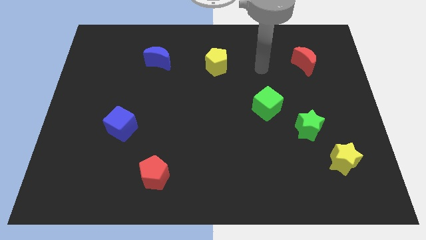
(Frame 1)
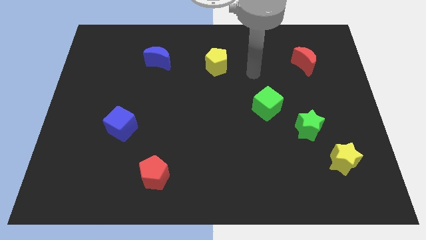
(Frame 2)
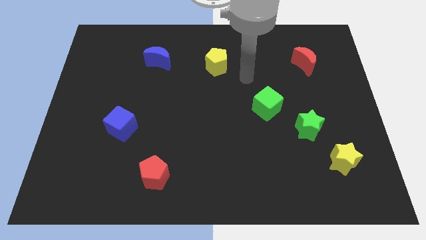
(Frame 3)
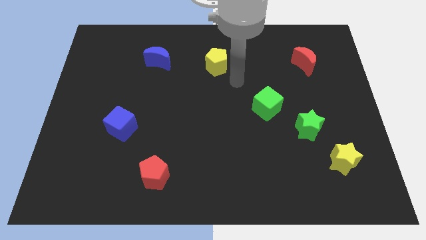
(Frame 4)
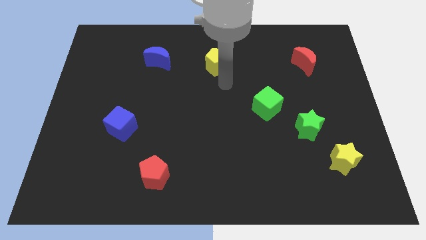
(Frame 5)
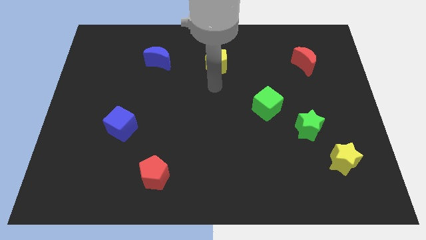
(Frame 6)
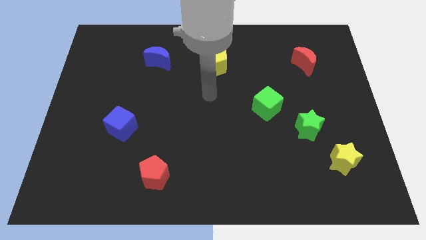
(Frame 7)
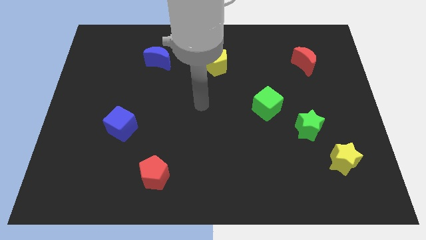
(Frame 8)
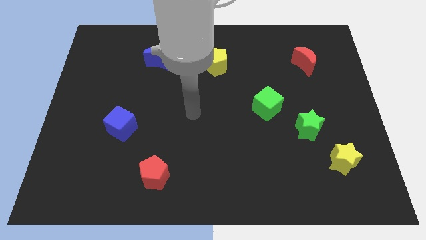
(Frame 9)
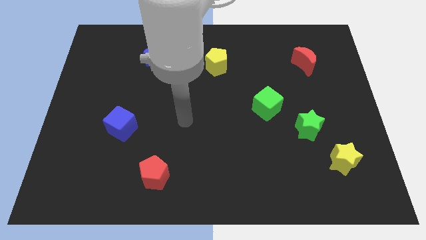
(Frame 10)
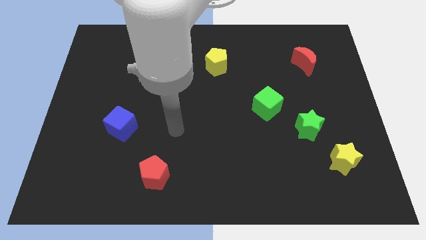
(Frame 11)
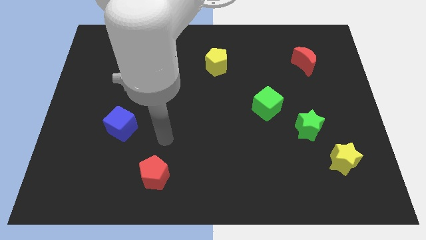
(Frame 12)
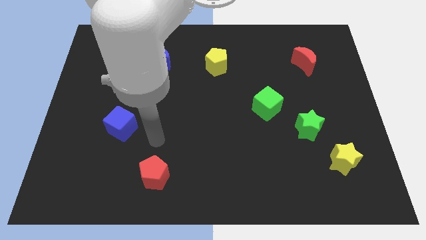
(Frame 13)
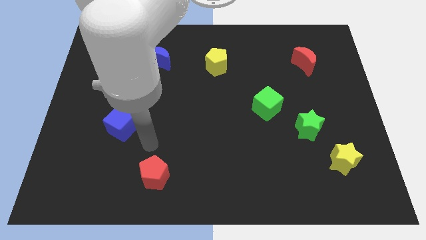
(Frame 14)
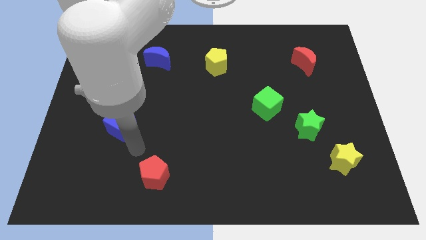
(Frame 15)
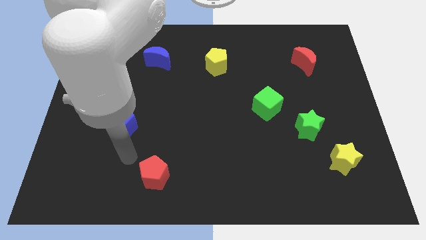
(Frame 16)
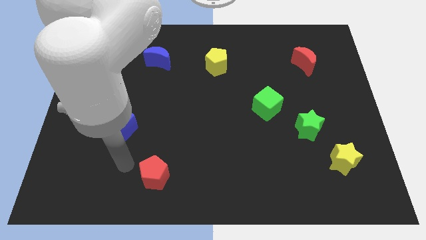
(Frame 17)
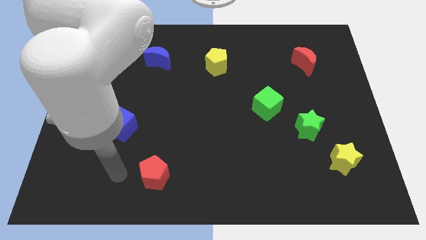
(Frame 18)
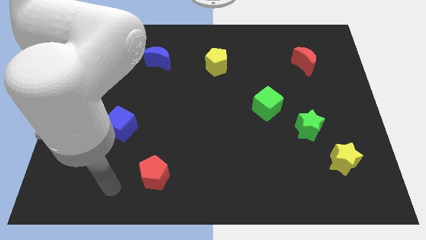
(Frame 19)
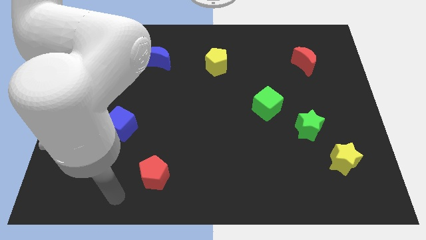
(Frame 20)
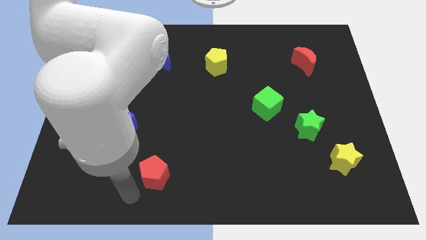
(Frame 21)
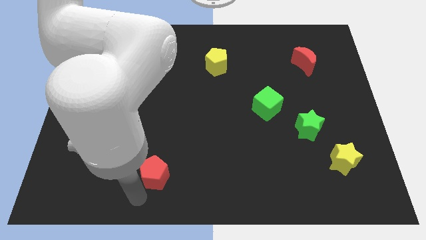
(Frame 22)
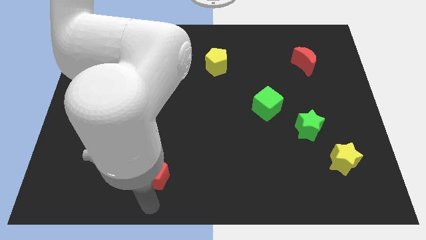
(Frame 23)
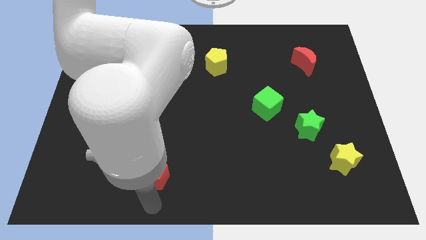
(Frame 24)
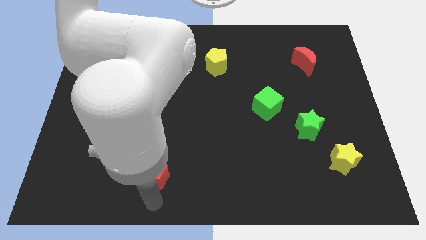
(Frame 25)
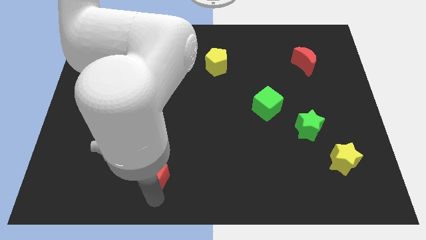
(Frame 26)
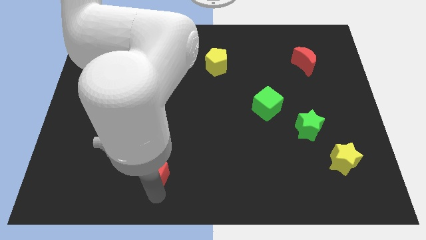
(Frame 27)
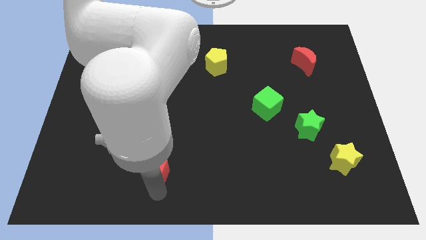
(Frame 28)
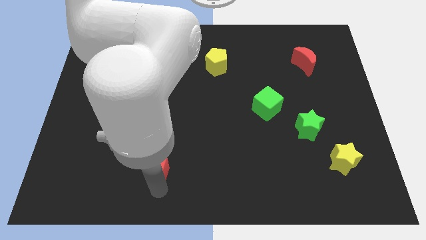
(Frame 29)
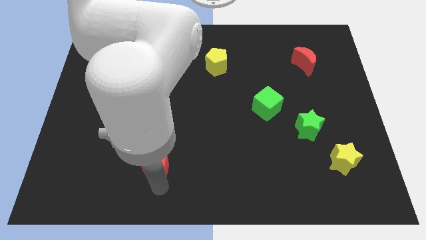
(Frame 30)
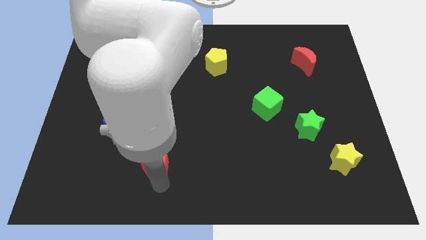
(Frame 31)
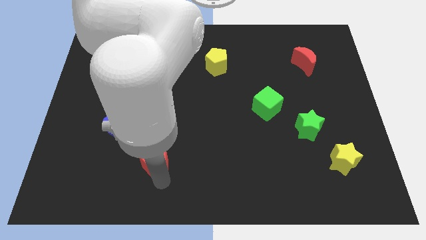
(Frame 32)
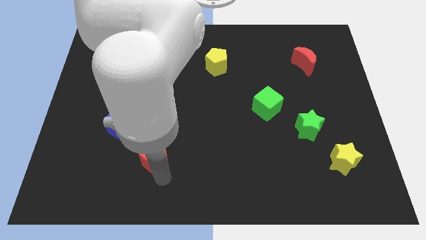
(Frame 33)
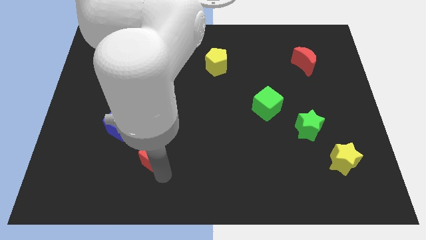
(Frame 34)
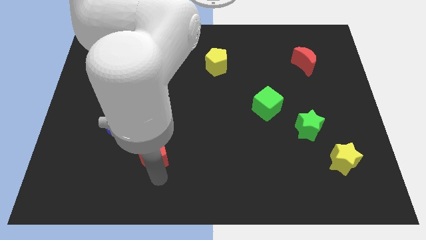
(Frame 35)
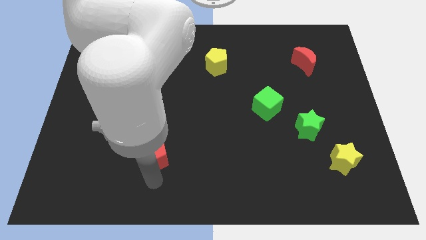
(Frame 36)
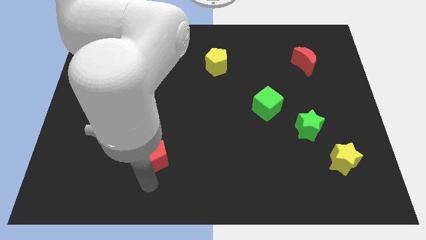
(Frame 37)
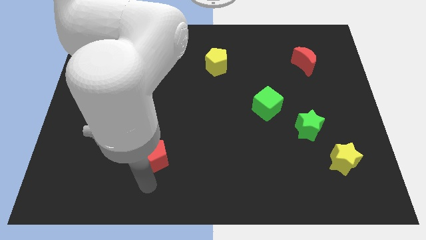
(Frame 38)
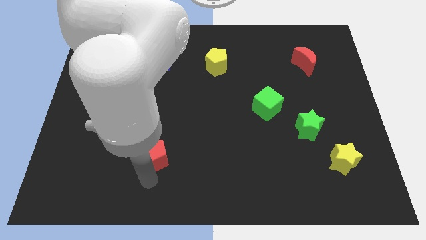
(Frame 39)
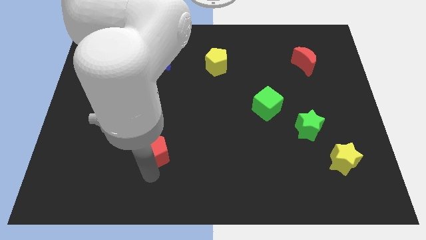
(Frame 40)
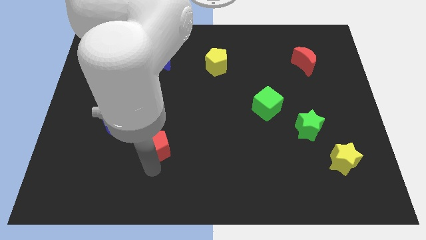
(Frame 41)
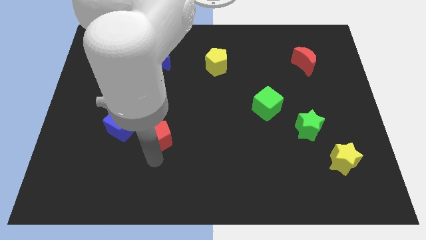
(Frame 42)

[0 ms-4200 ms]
slide the red pentagon a little bit upwards

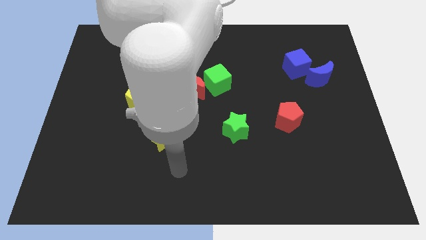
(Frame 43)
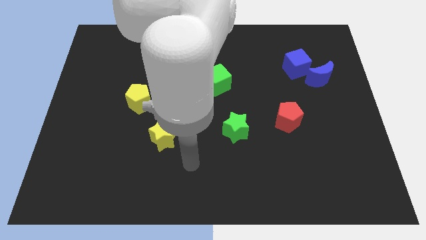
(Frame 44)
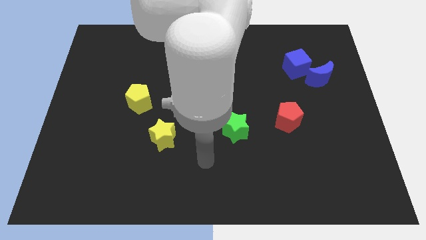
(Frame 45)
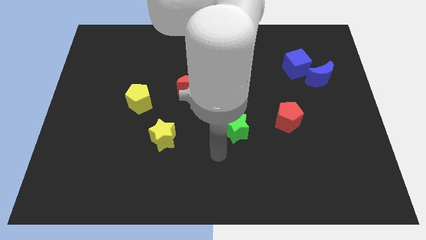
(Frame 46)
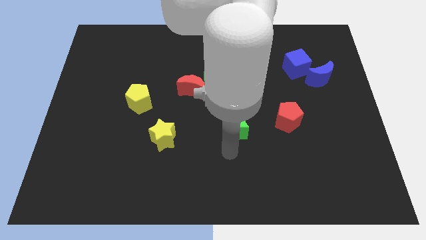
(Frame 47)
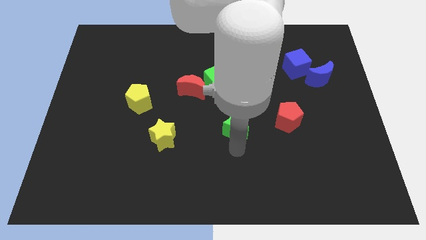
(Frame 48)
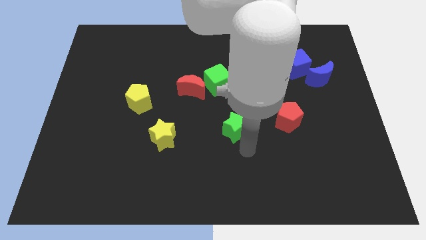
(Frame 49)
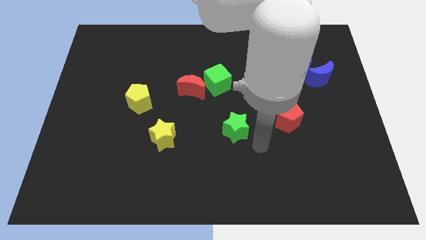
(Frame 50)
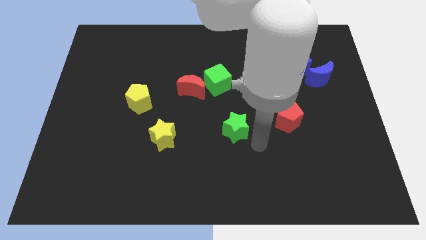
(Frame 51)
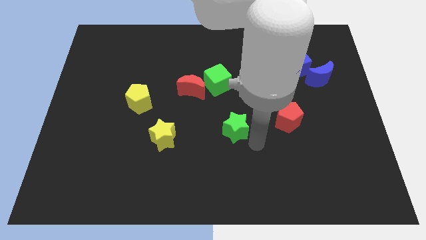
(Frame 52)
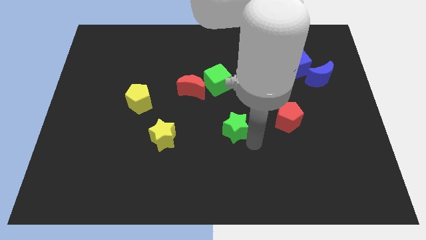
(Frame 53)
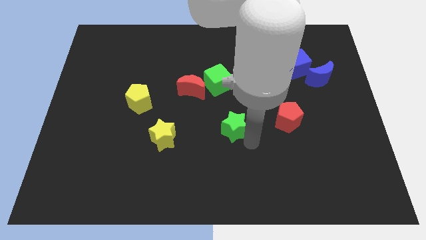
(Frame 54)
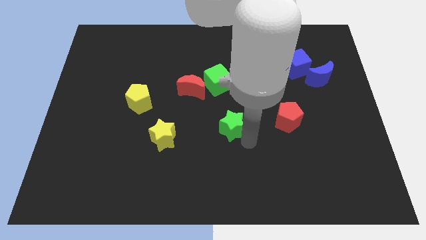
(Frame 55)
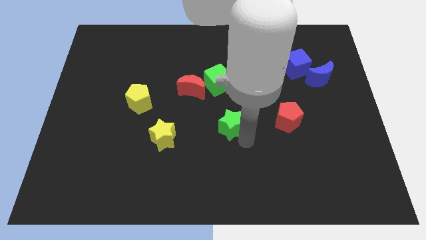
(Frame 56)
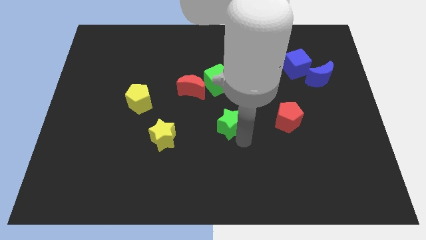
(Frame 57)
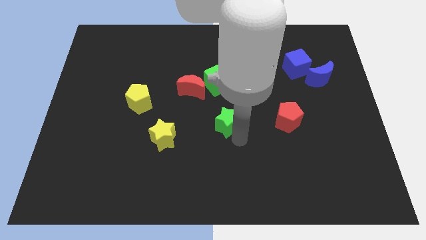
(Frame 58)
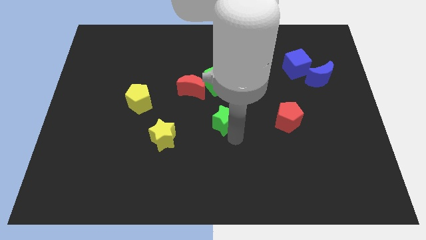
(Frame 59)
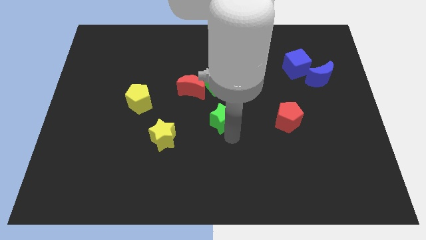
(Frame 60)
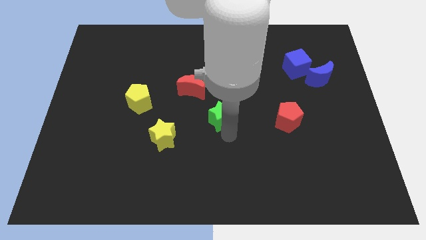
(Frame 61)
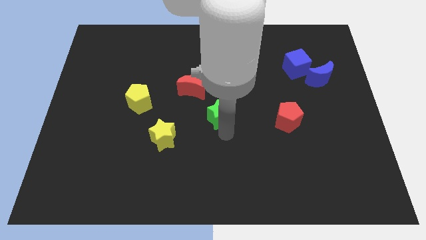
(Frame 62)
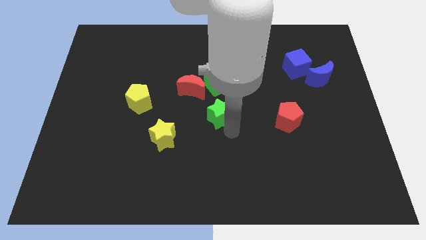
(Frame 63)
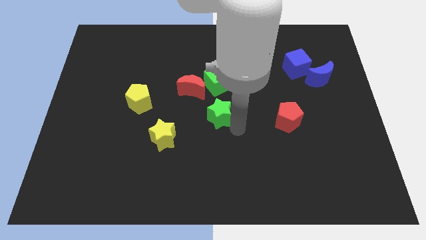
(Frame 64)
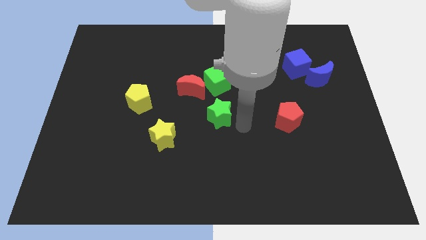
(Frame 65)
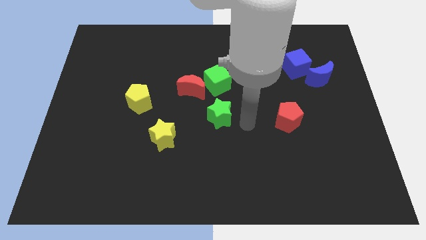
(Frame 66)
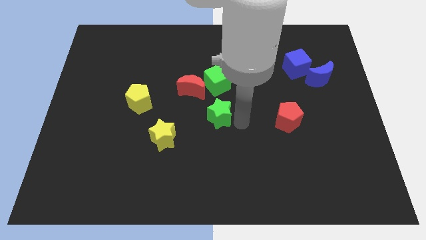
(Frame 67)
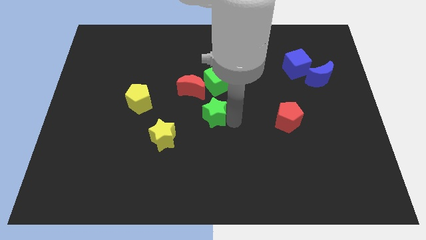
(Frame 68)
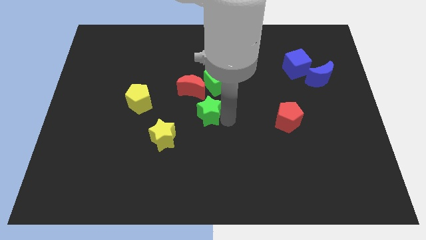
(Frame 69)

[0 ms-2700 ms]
push the green star a bit up and to the left

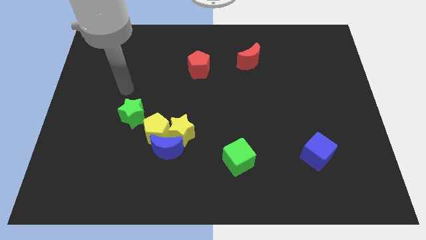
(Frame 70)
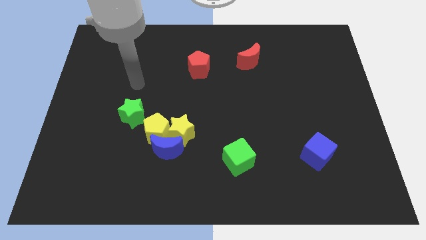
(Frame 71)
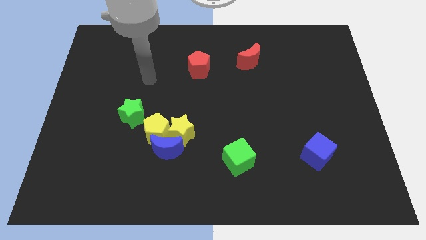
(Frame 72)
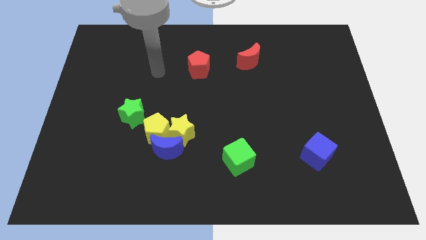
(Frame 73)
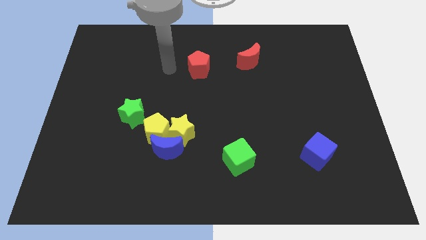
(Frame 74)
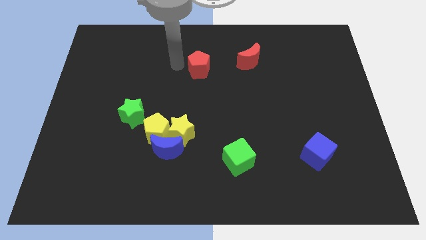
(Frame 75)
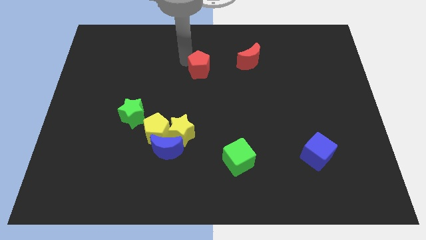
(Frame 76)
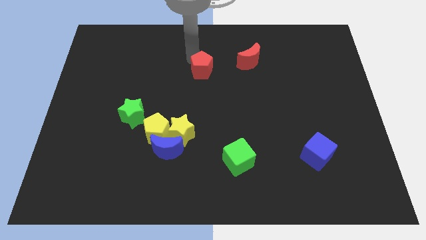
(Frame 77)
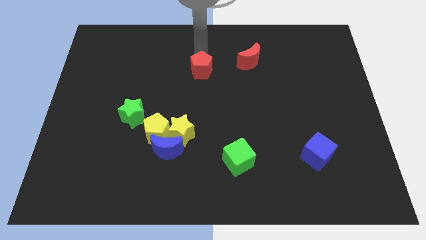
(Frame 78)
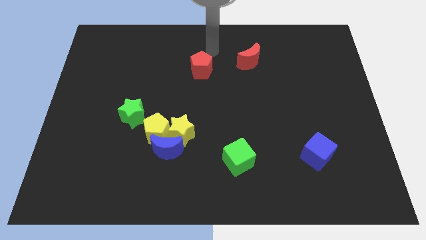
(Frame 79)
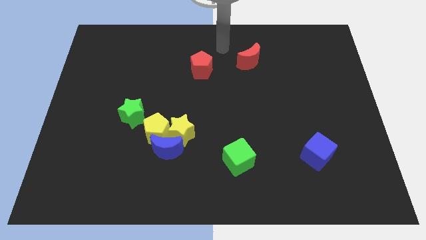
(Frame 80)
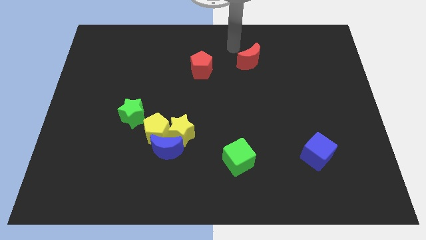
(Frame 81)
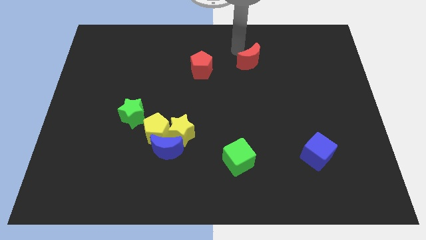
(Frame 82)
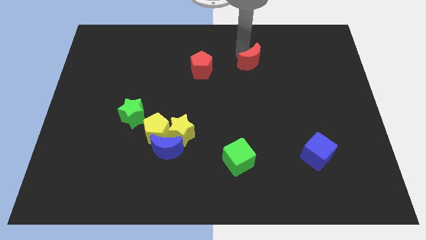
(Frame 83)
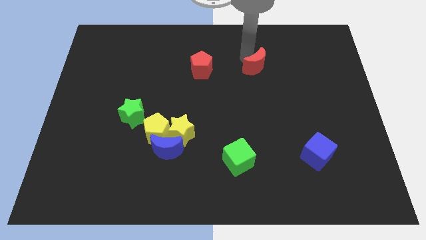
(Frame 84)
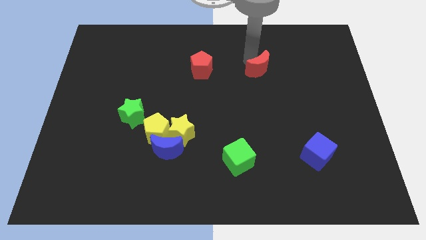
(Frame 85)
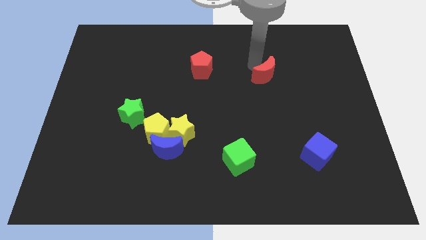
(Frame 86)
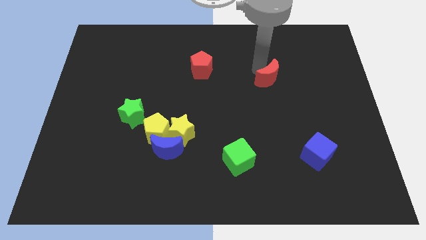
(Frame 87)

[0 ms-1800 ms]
move the red moon somewhat down and then to the right
